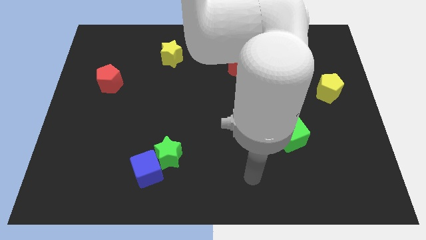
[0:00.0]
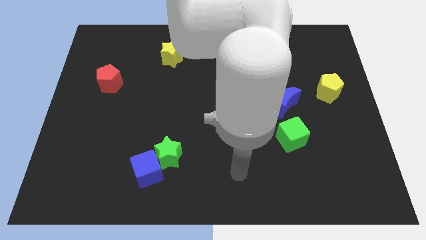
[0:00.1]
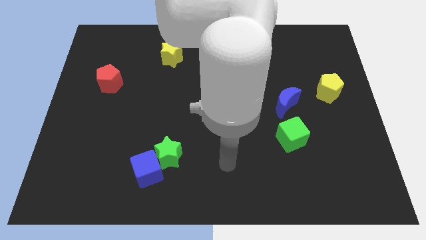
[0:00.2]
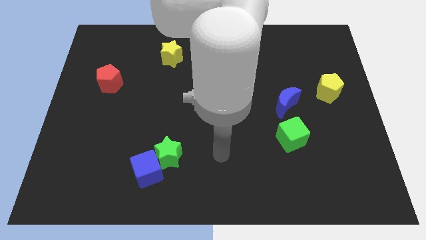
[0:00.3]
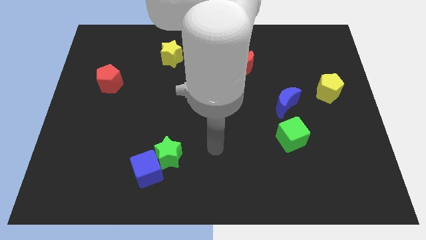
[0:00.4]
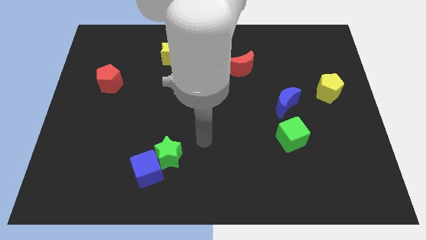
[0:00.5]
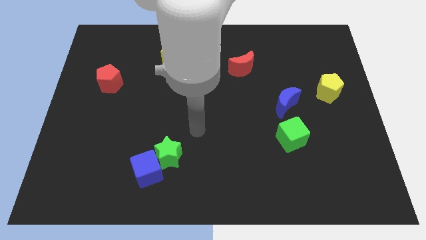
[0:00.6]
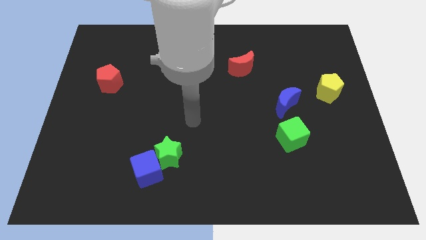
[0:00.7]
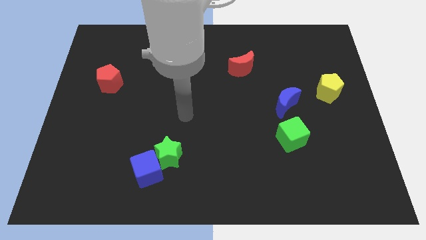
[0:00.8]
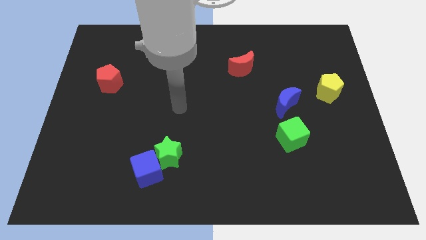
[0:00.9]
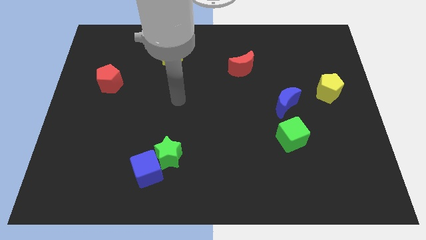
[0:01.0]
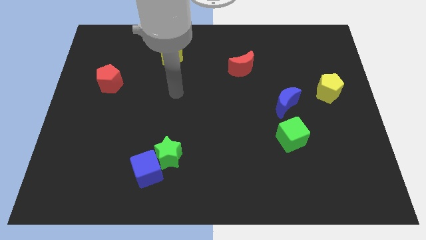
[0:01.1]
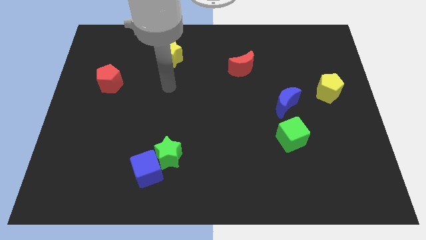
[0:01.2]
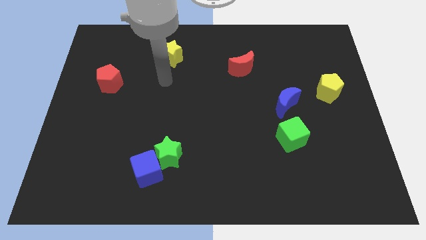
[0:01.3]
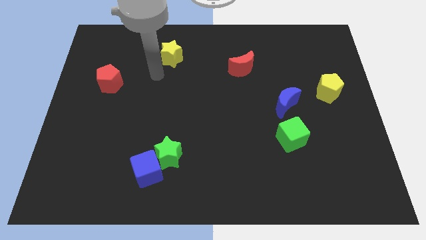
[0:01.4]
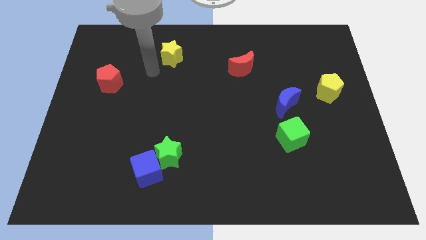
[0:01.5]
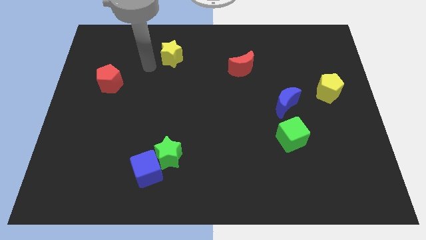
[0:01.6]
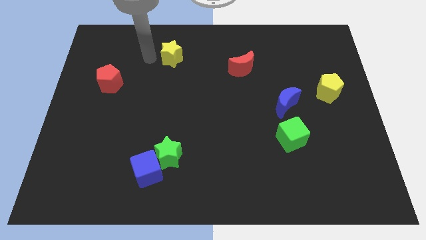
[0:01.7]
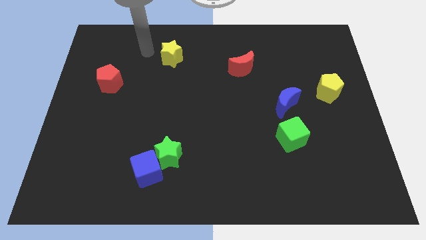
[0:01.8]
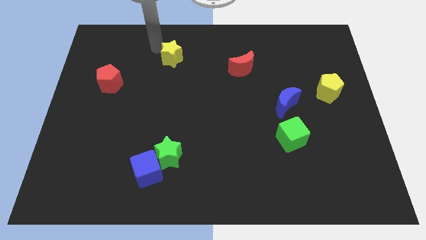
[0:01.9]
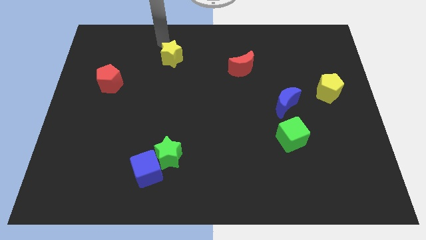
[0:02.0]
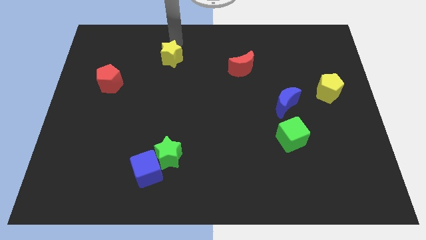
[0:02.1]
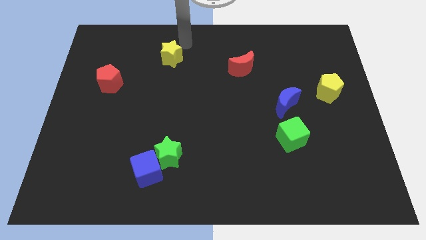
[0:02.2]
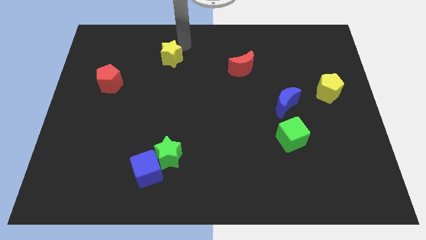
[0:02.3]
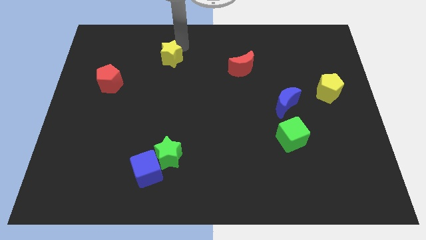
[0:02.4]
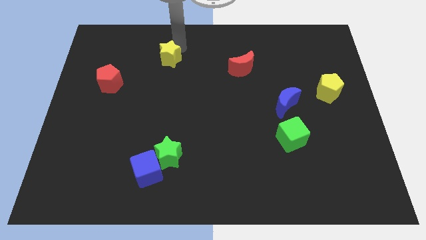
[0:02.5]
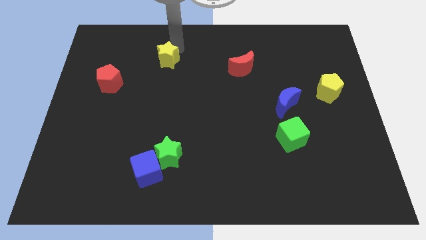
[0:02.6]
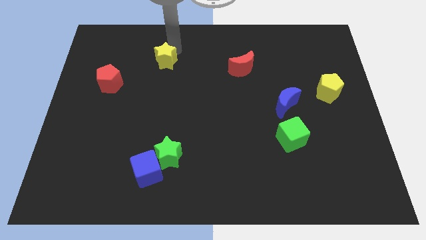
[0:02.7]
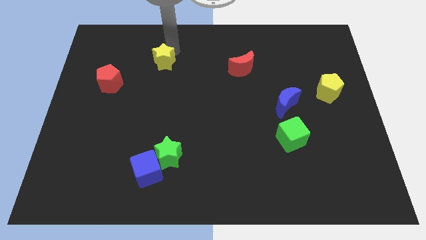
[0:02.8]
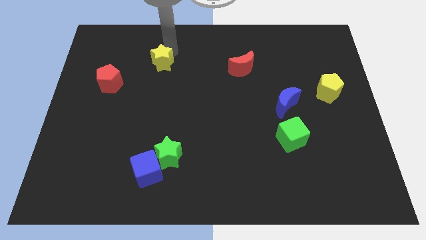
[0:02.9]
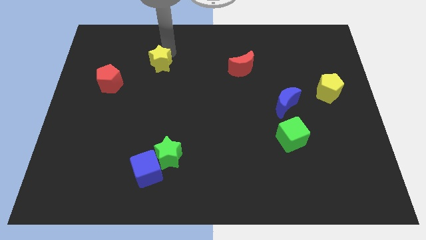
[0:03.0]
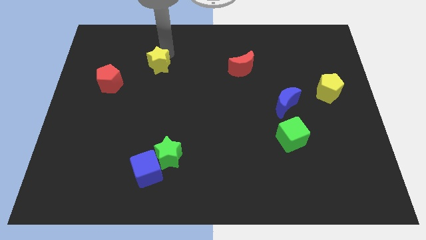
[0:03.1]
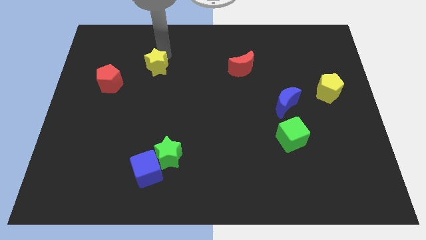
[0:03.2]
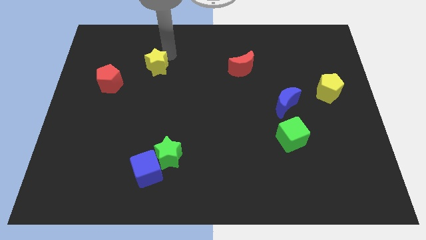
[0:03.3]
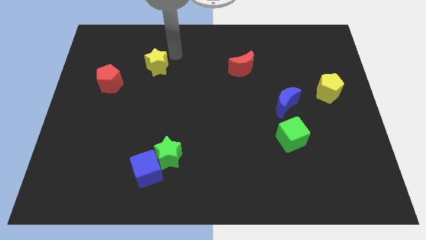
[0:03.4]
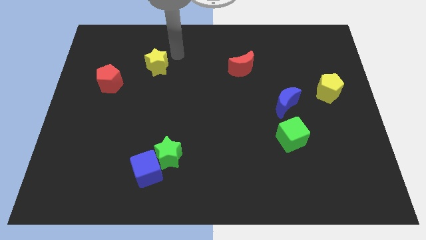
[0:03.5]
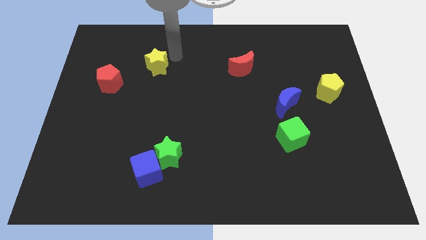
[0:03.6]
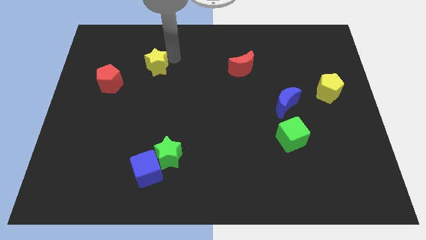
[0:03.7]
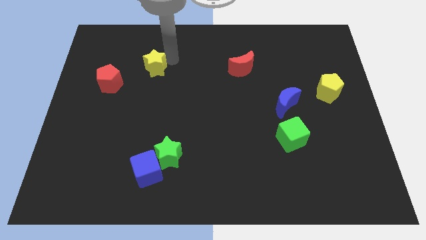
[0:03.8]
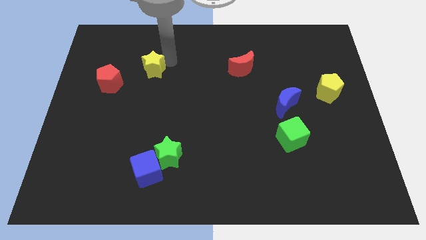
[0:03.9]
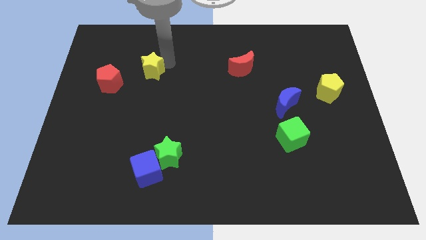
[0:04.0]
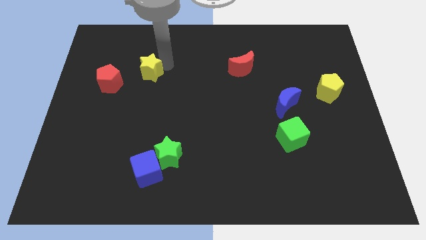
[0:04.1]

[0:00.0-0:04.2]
move the yellow star a bit diagonally downwards and left

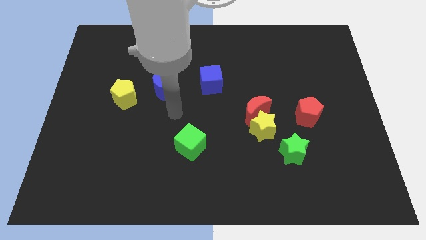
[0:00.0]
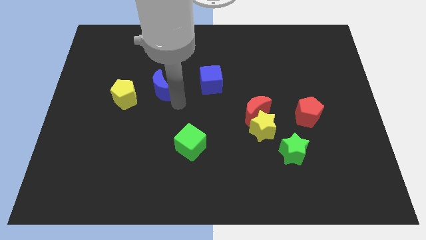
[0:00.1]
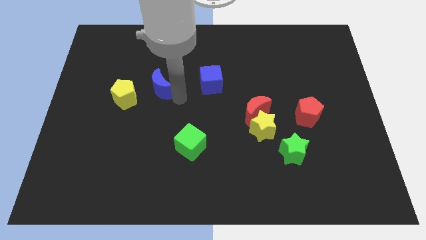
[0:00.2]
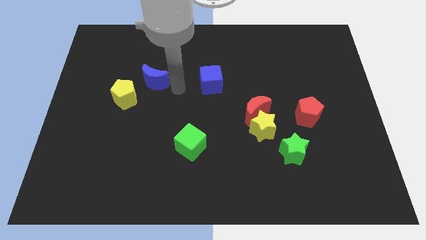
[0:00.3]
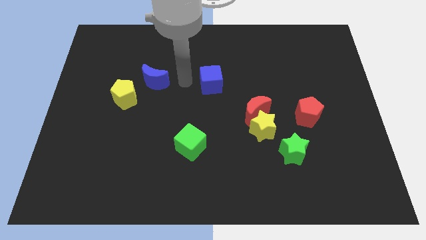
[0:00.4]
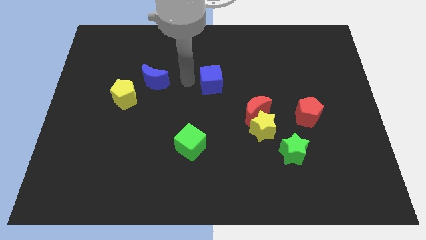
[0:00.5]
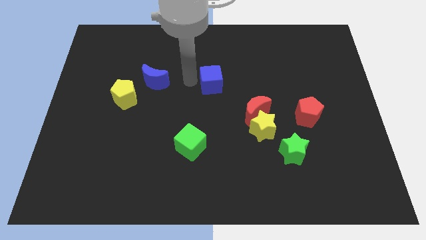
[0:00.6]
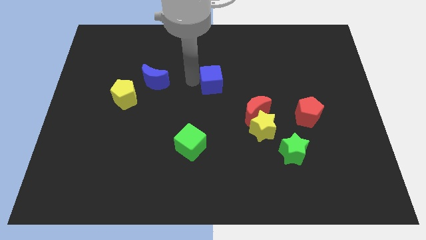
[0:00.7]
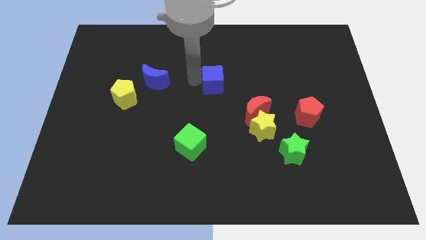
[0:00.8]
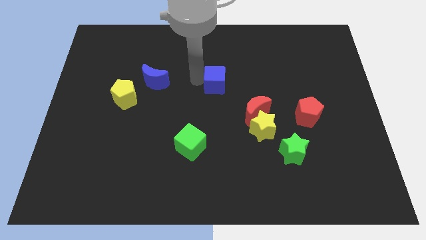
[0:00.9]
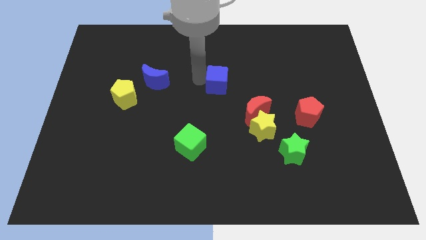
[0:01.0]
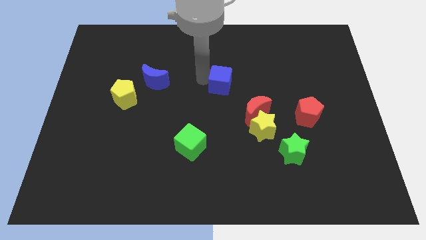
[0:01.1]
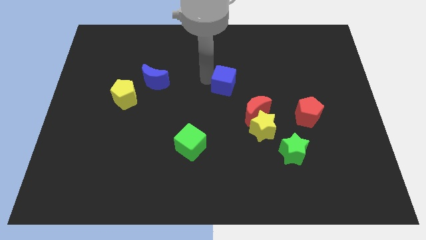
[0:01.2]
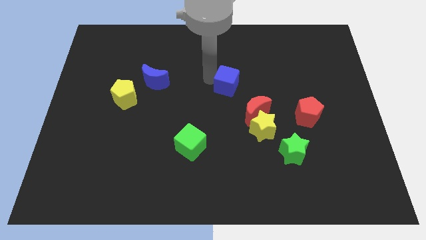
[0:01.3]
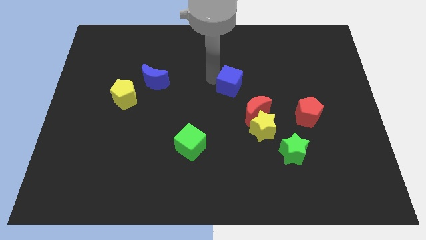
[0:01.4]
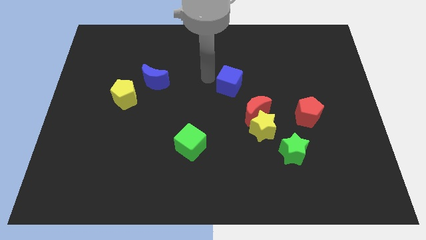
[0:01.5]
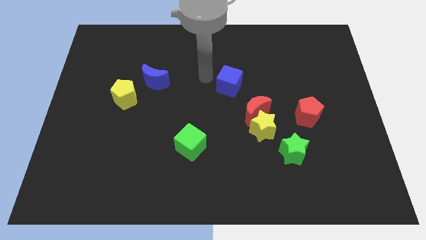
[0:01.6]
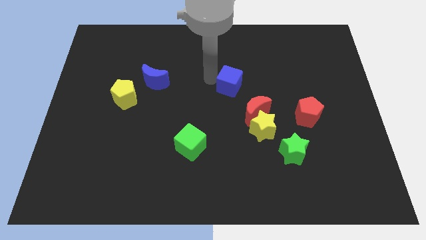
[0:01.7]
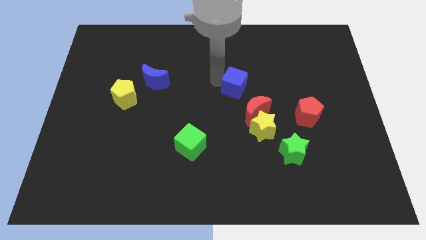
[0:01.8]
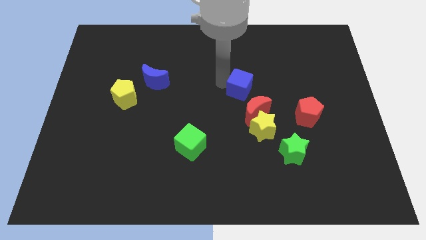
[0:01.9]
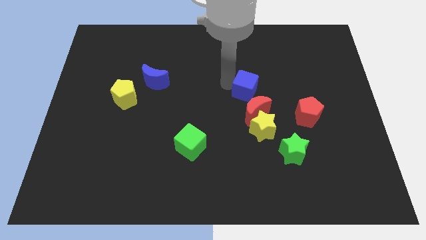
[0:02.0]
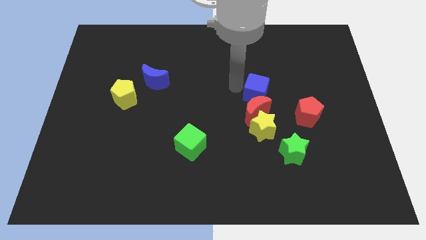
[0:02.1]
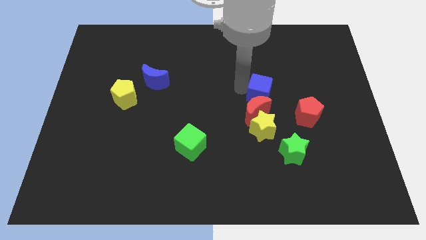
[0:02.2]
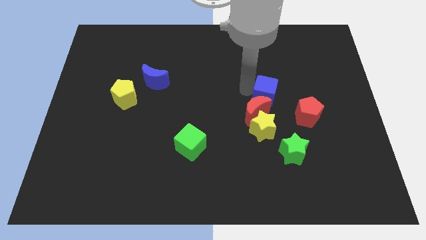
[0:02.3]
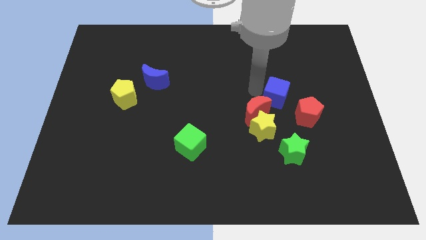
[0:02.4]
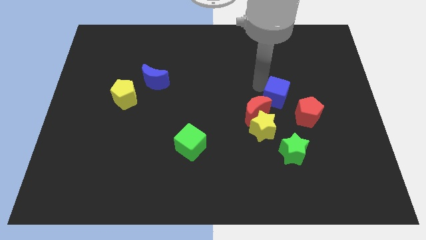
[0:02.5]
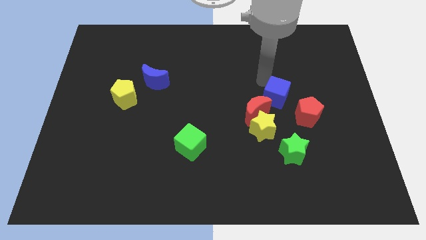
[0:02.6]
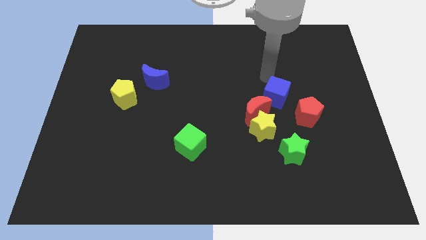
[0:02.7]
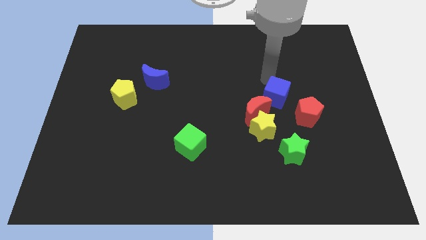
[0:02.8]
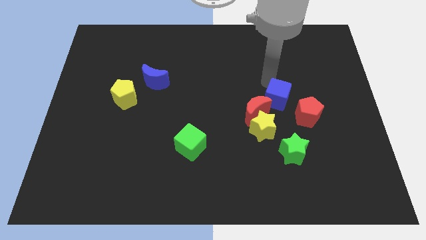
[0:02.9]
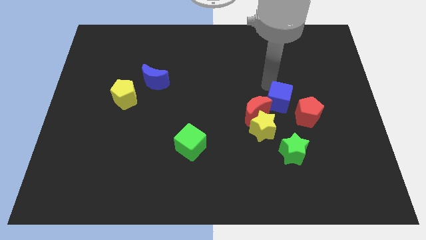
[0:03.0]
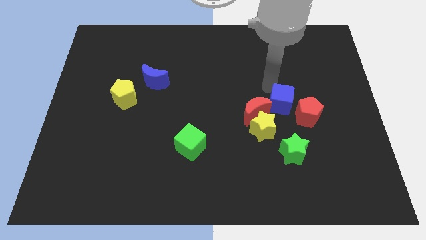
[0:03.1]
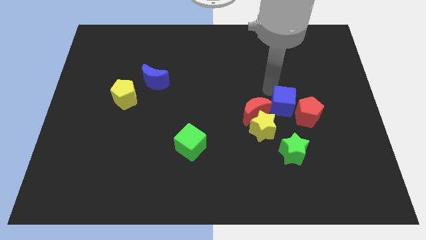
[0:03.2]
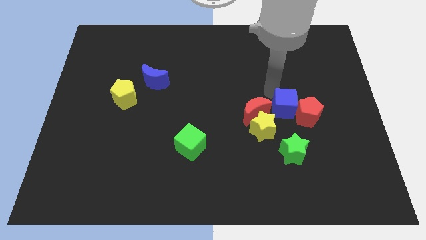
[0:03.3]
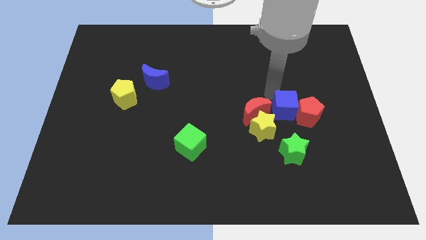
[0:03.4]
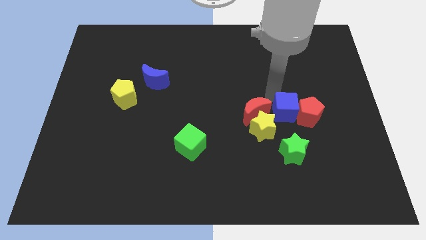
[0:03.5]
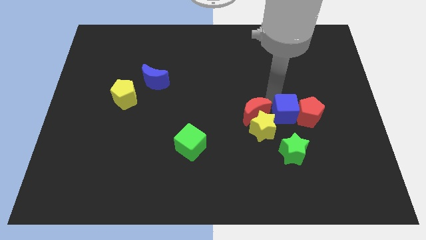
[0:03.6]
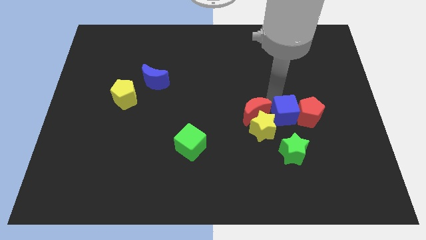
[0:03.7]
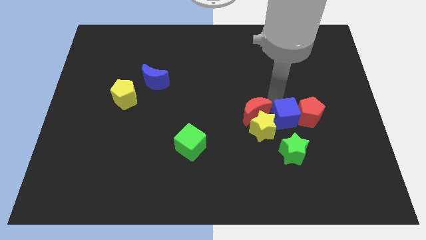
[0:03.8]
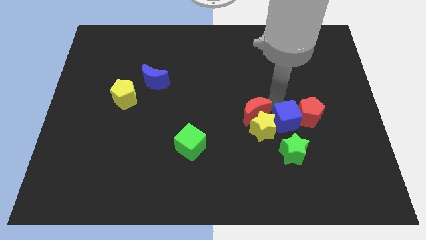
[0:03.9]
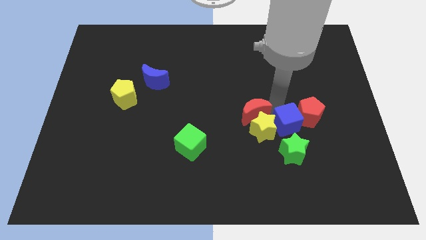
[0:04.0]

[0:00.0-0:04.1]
move the blue cube down and then to the right
